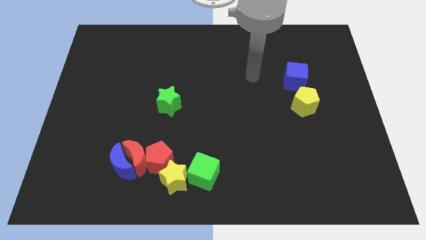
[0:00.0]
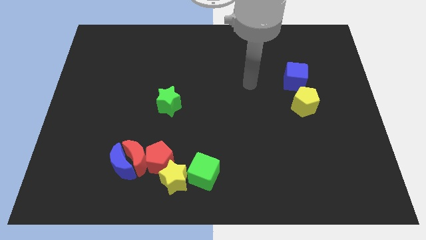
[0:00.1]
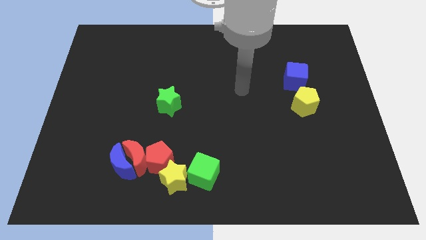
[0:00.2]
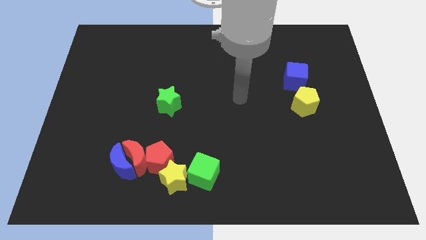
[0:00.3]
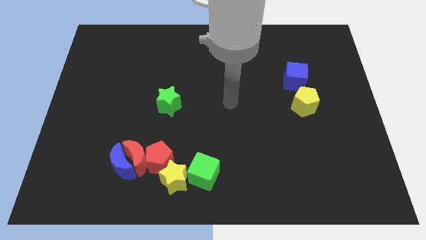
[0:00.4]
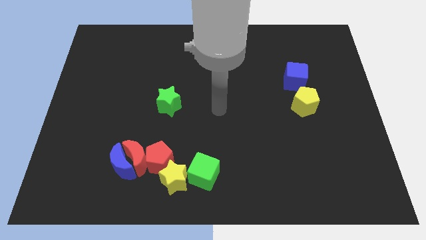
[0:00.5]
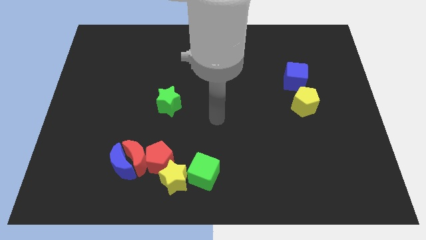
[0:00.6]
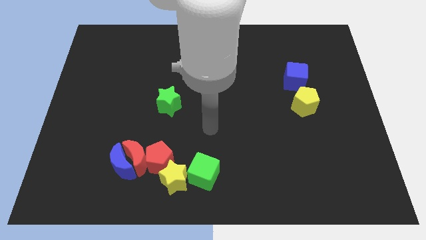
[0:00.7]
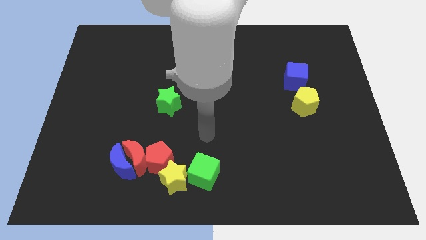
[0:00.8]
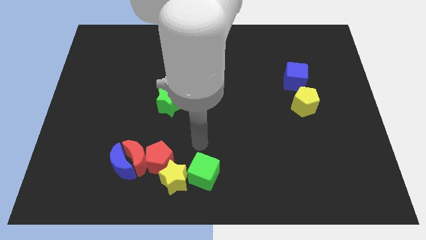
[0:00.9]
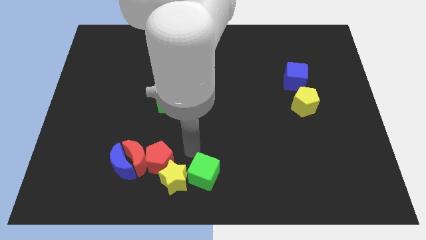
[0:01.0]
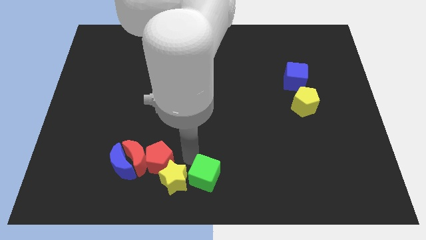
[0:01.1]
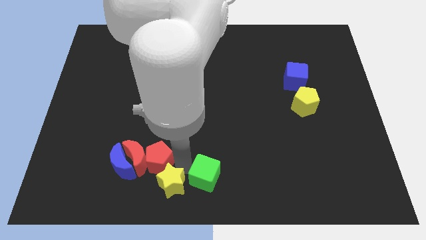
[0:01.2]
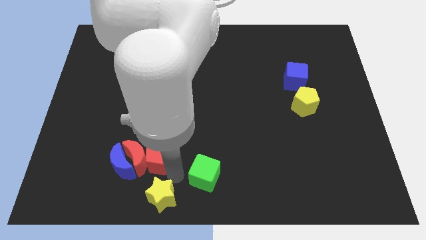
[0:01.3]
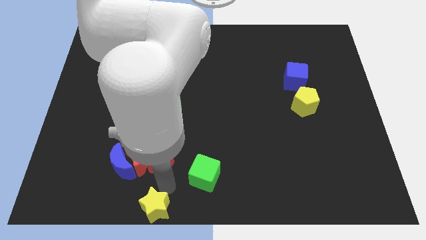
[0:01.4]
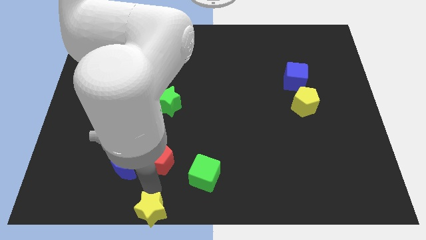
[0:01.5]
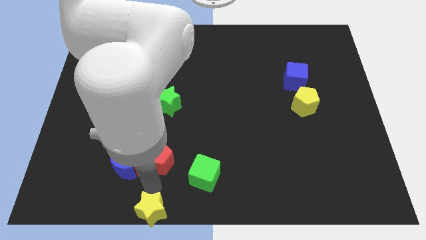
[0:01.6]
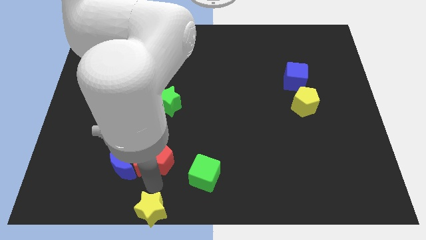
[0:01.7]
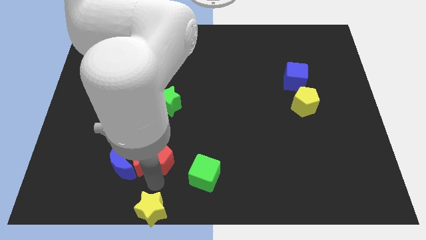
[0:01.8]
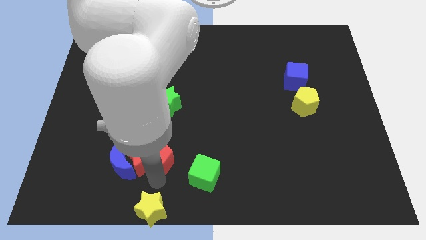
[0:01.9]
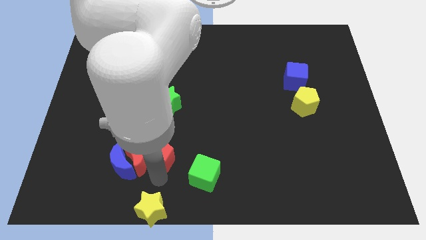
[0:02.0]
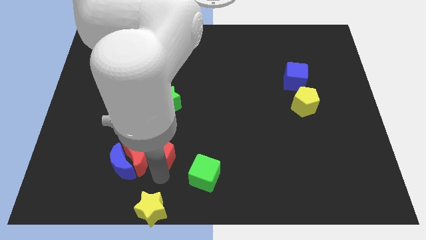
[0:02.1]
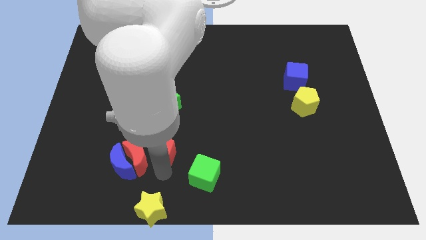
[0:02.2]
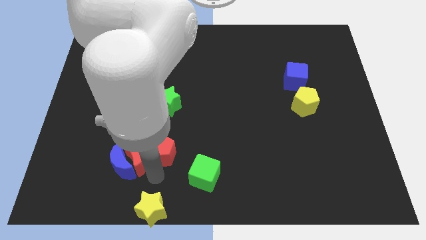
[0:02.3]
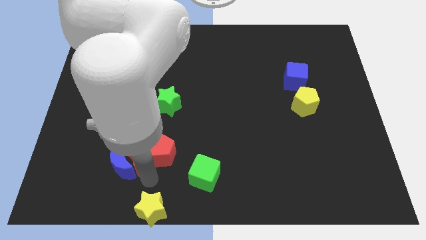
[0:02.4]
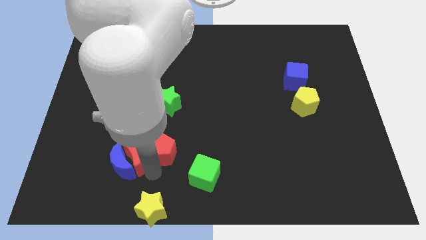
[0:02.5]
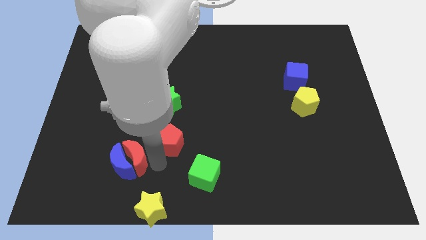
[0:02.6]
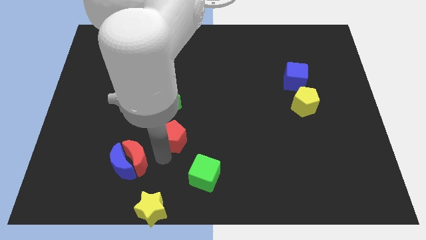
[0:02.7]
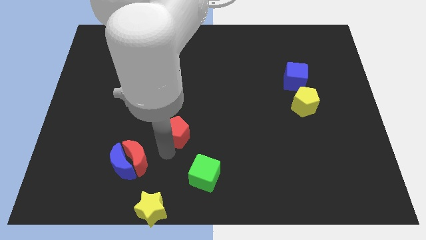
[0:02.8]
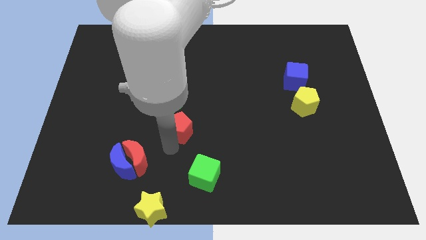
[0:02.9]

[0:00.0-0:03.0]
move the red pentagon somewhat upwards

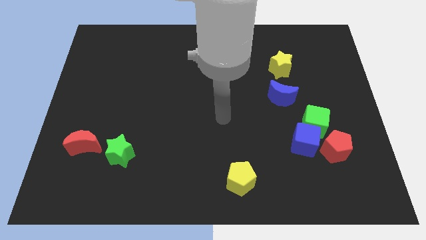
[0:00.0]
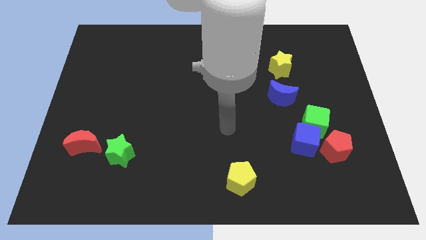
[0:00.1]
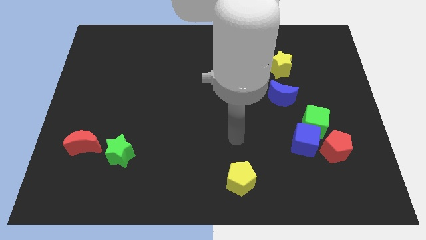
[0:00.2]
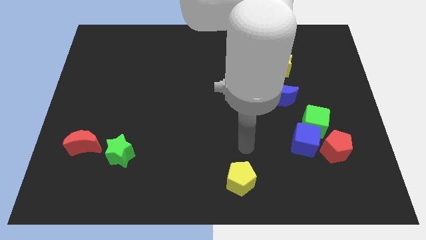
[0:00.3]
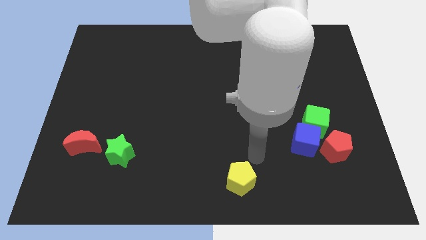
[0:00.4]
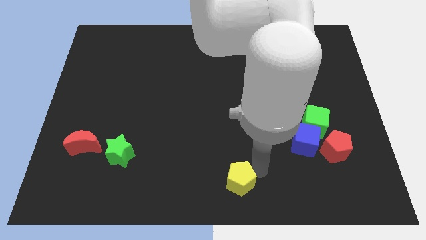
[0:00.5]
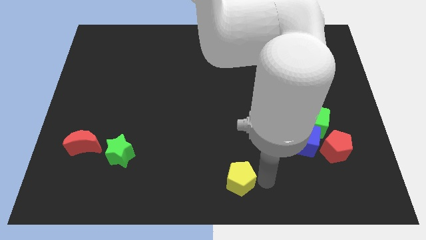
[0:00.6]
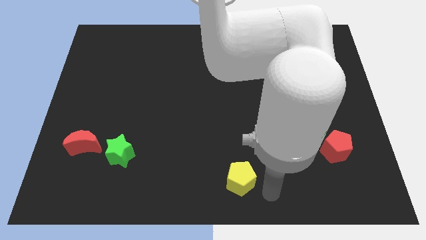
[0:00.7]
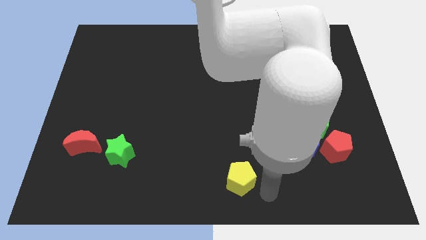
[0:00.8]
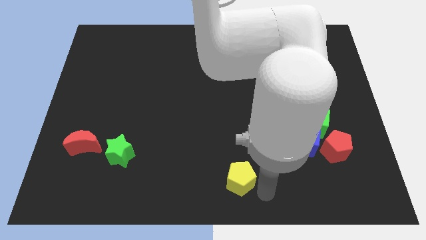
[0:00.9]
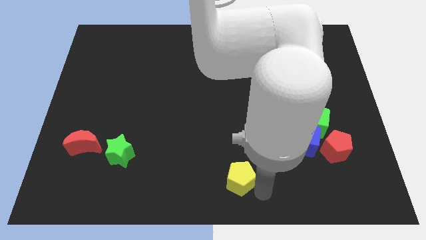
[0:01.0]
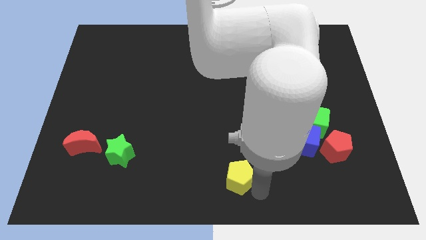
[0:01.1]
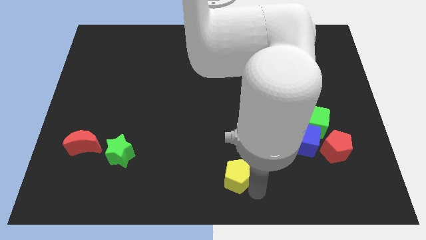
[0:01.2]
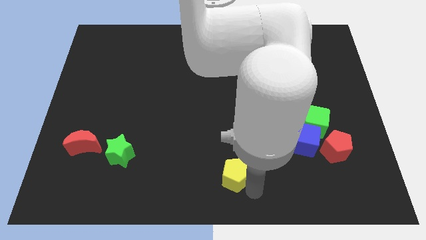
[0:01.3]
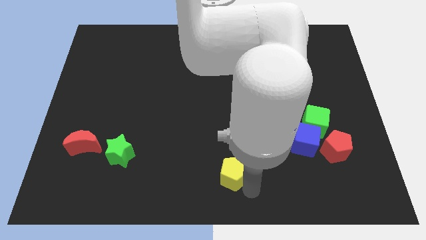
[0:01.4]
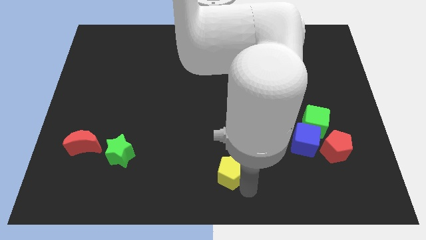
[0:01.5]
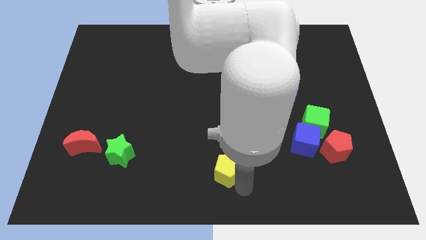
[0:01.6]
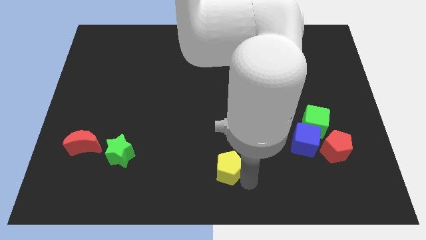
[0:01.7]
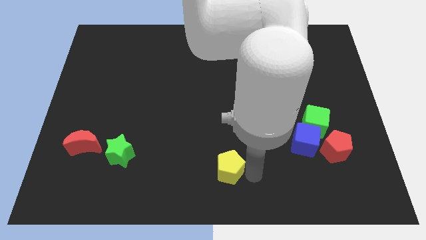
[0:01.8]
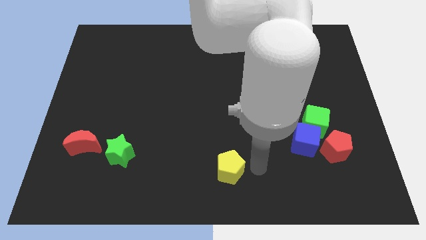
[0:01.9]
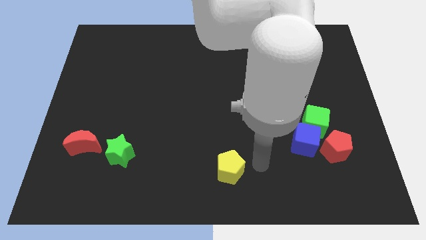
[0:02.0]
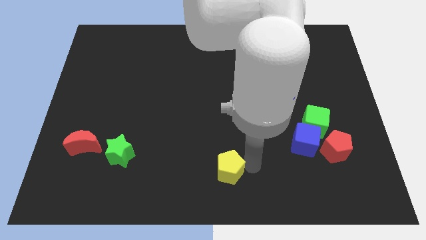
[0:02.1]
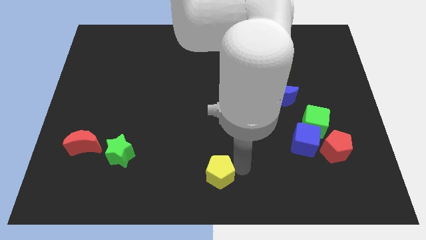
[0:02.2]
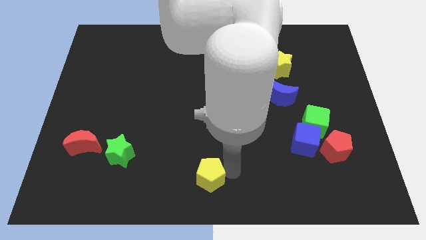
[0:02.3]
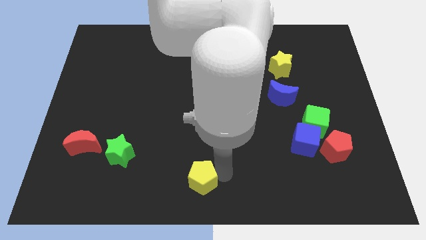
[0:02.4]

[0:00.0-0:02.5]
move the yellow pentagon left slightly

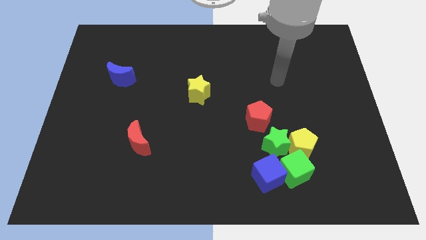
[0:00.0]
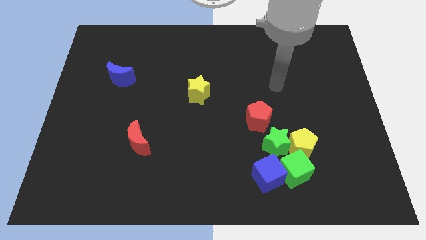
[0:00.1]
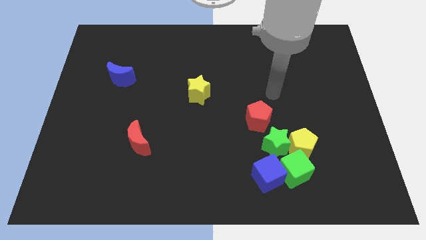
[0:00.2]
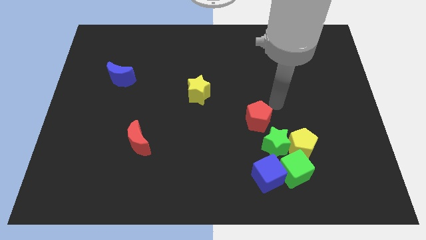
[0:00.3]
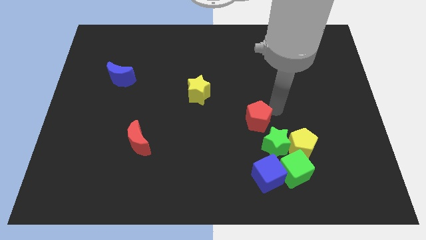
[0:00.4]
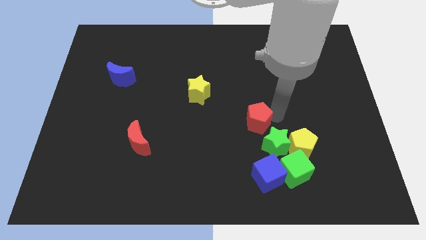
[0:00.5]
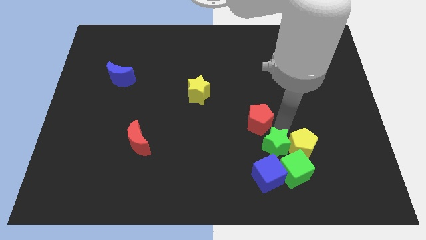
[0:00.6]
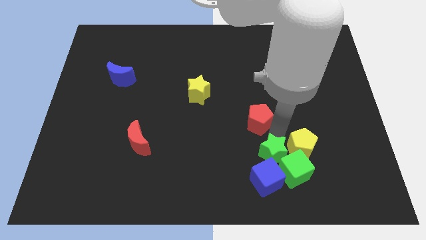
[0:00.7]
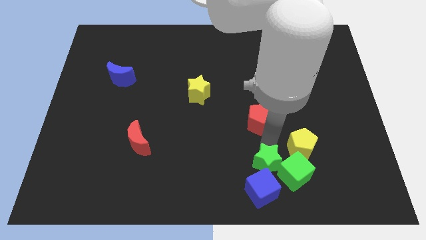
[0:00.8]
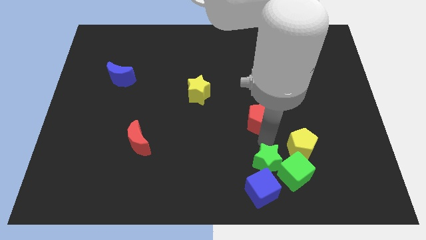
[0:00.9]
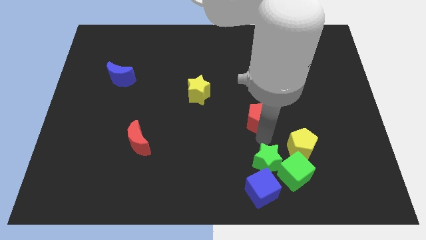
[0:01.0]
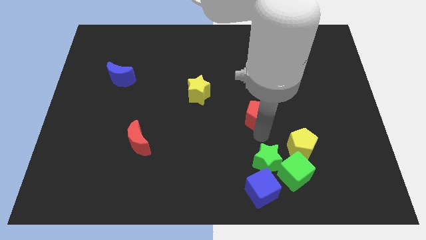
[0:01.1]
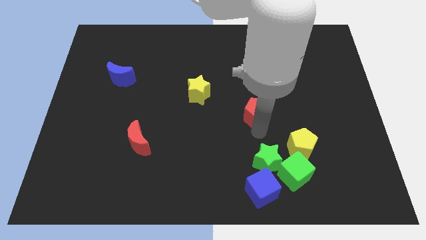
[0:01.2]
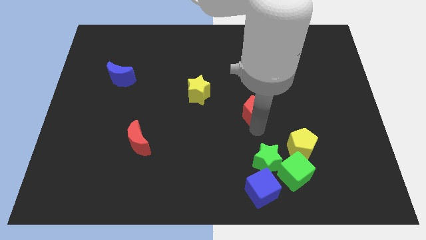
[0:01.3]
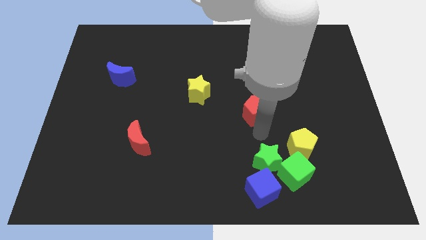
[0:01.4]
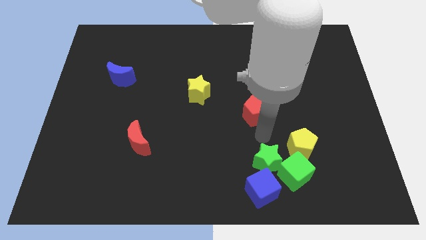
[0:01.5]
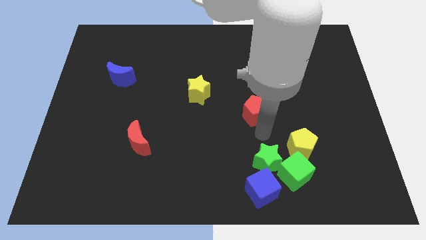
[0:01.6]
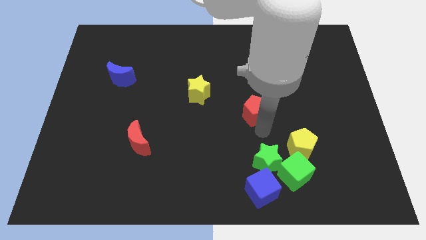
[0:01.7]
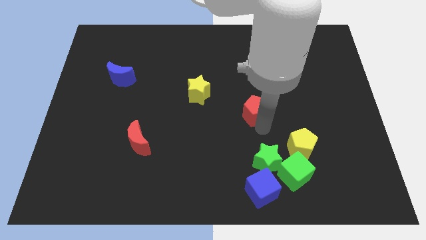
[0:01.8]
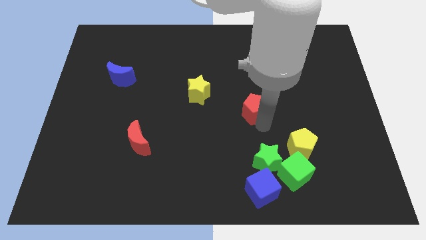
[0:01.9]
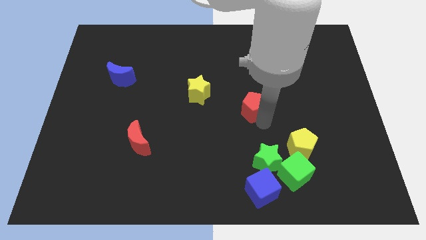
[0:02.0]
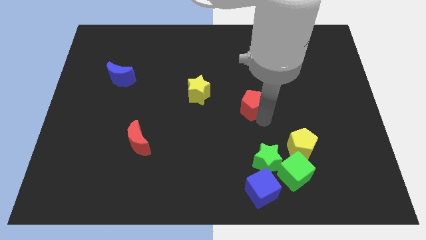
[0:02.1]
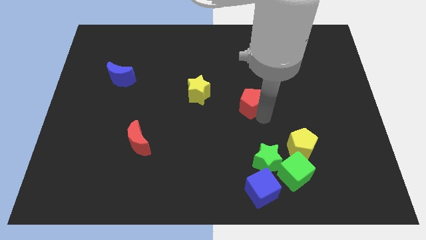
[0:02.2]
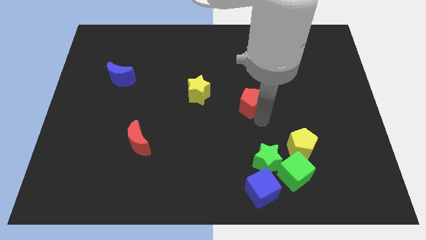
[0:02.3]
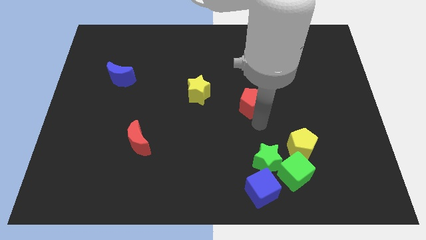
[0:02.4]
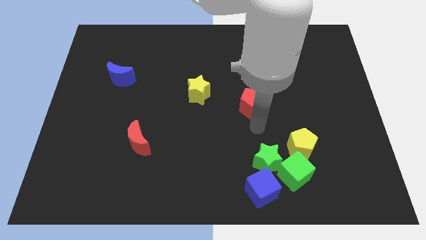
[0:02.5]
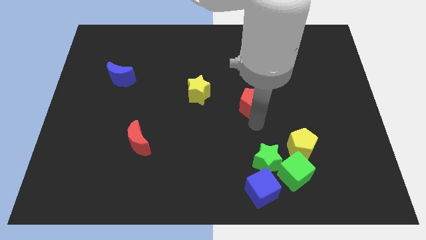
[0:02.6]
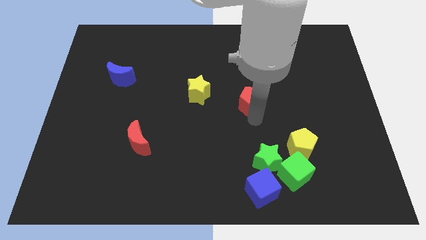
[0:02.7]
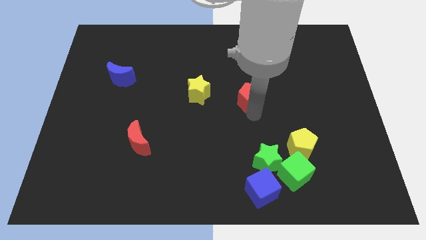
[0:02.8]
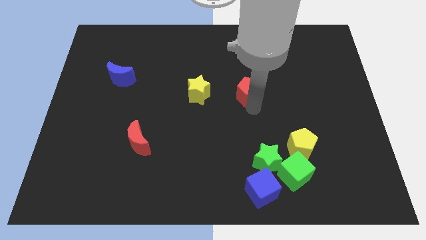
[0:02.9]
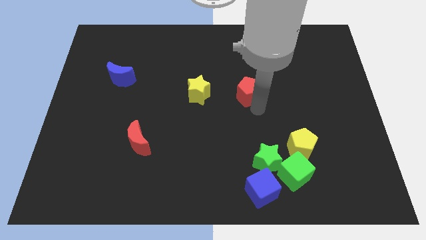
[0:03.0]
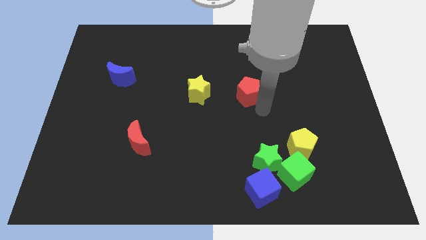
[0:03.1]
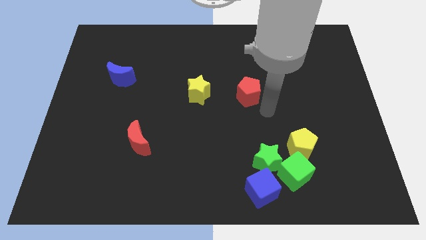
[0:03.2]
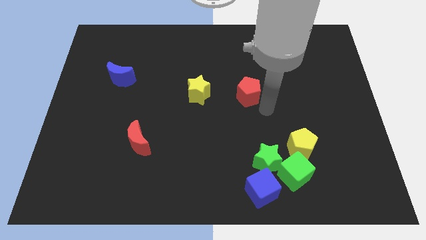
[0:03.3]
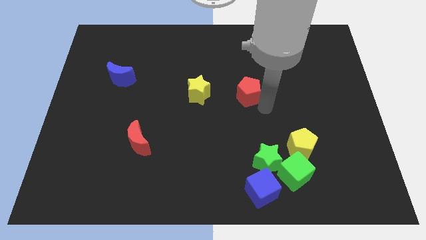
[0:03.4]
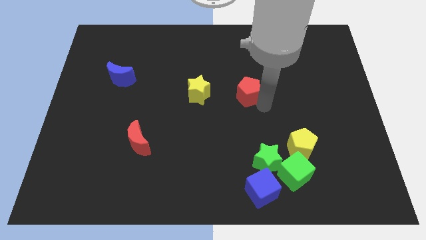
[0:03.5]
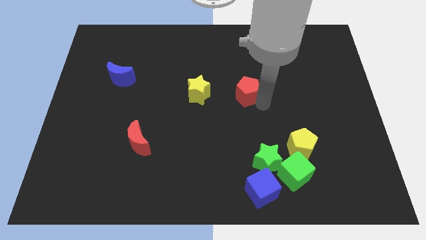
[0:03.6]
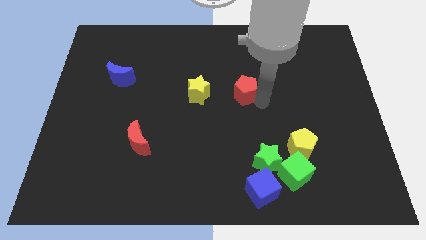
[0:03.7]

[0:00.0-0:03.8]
push the red pentagon somewhat upwards and left
